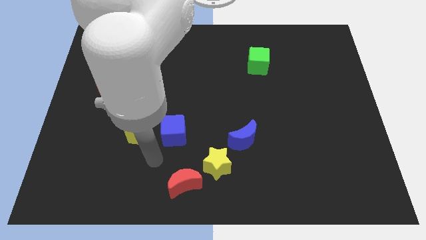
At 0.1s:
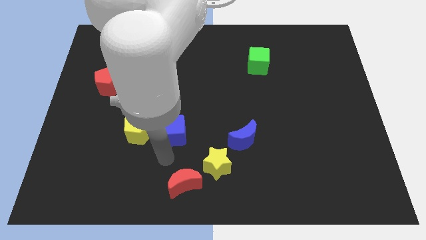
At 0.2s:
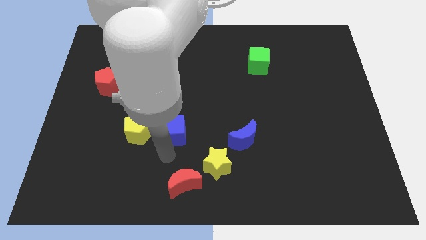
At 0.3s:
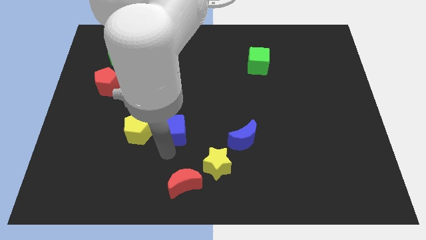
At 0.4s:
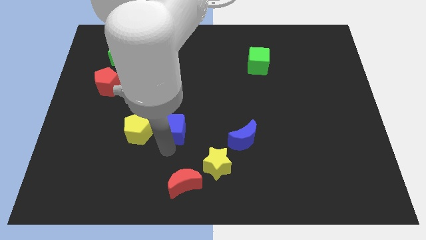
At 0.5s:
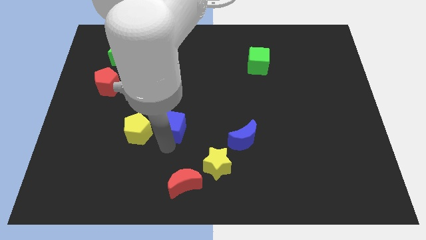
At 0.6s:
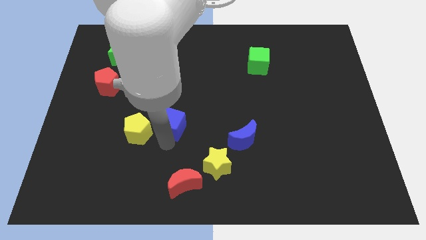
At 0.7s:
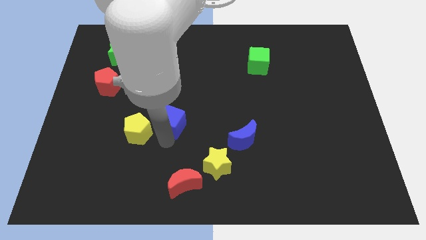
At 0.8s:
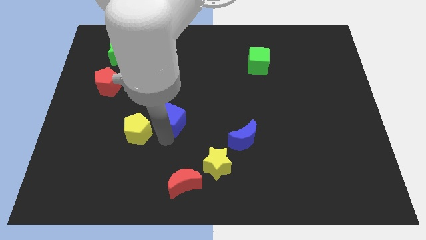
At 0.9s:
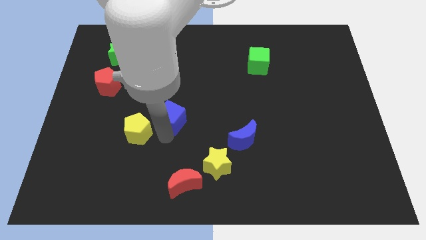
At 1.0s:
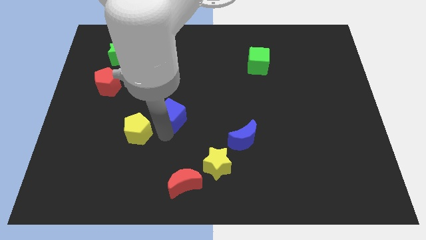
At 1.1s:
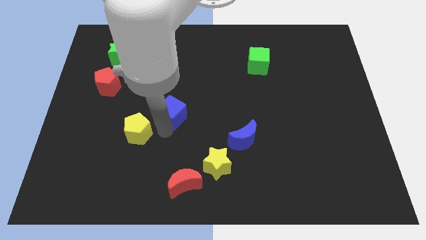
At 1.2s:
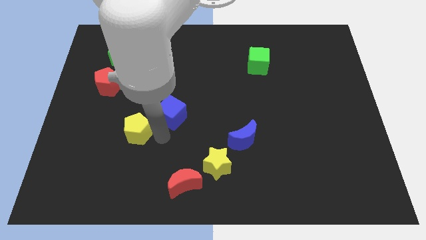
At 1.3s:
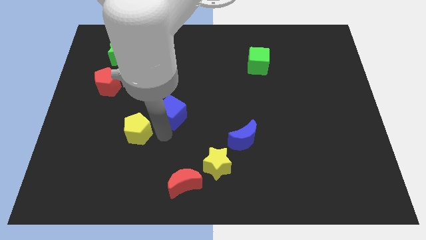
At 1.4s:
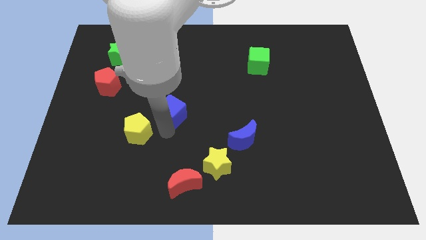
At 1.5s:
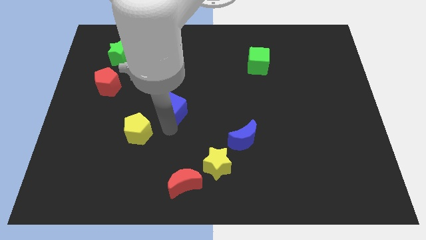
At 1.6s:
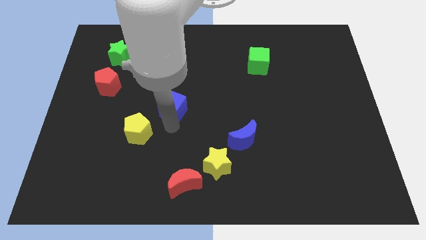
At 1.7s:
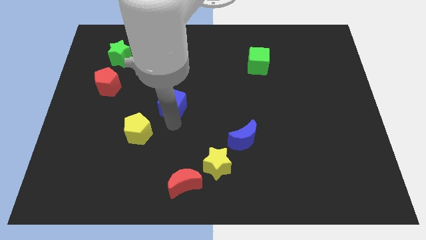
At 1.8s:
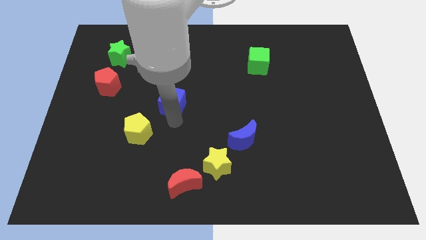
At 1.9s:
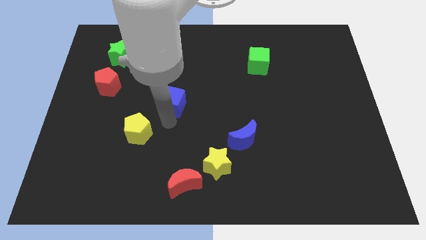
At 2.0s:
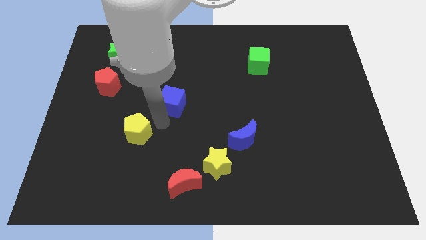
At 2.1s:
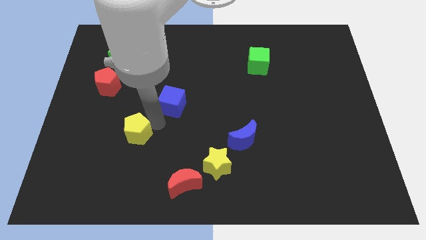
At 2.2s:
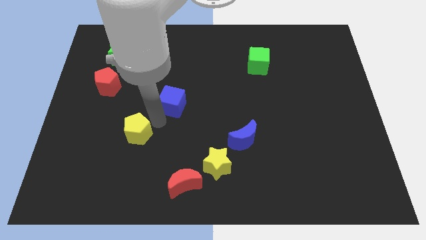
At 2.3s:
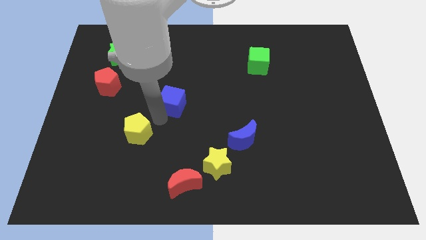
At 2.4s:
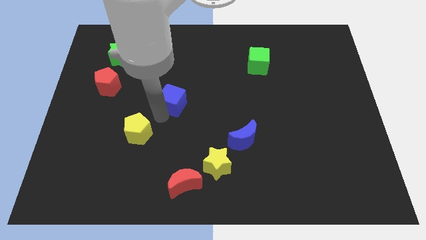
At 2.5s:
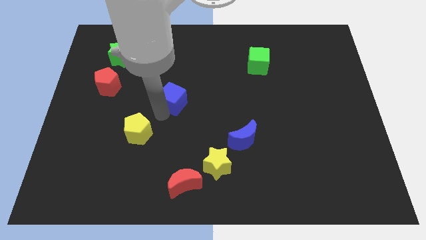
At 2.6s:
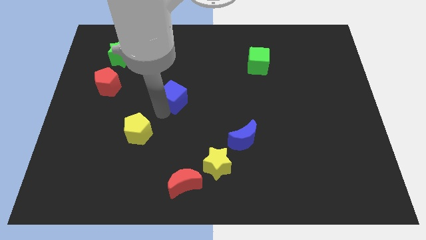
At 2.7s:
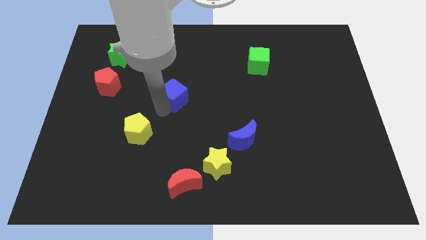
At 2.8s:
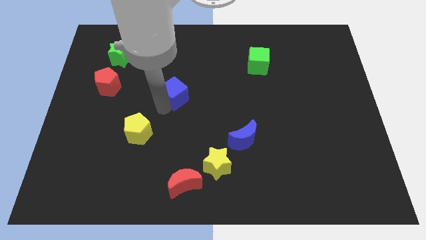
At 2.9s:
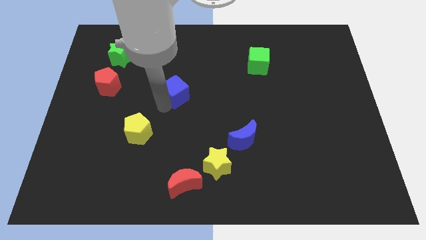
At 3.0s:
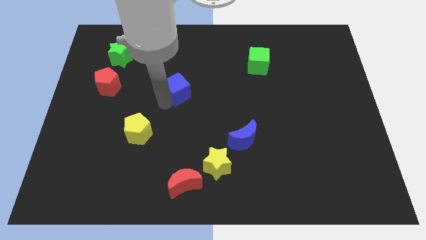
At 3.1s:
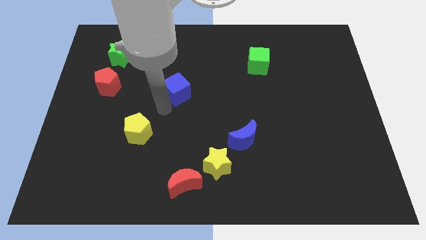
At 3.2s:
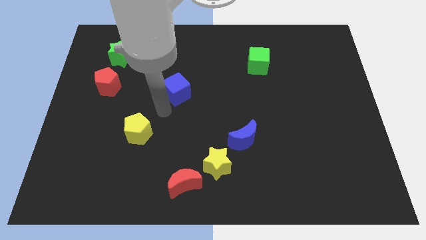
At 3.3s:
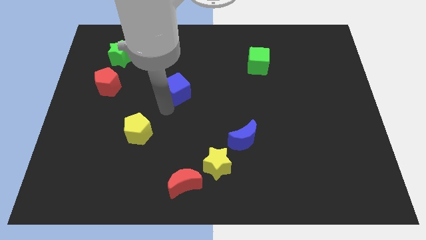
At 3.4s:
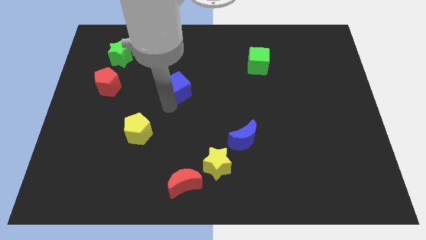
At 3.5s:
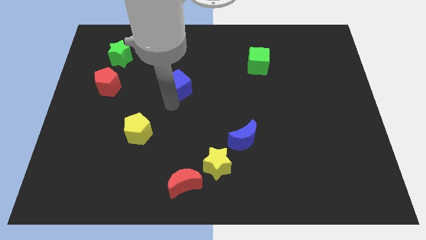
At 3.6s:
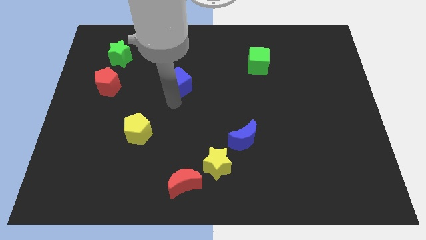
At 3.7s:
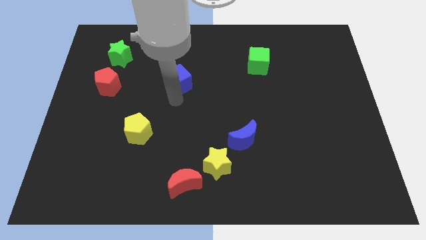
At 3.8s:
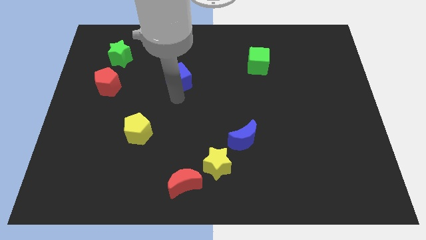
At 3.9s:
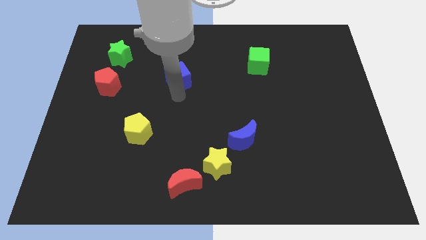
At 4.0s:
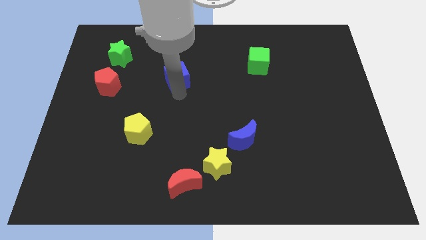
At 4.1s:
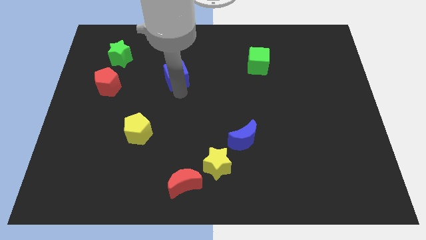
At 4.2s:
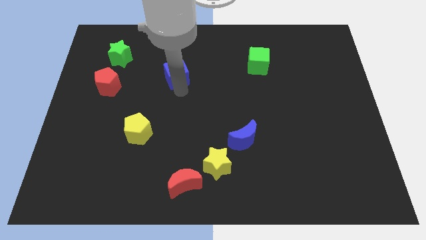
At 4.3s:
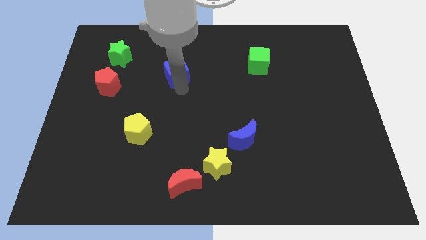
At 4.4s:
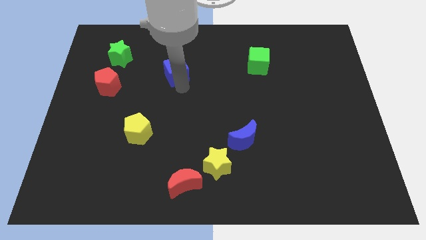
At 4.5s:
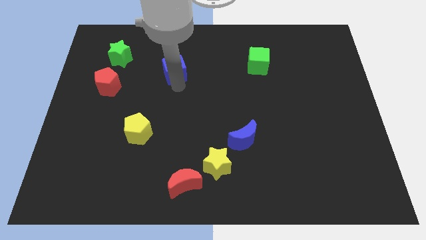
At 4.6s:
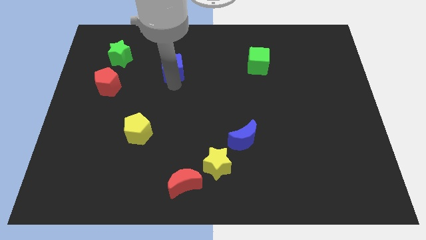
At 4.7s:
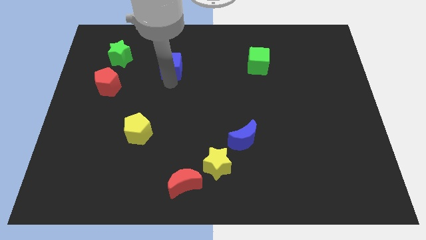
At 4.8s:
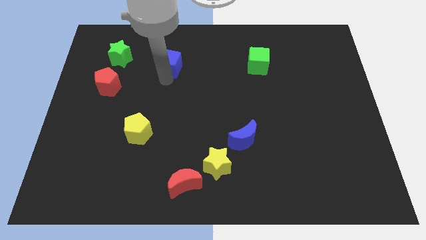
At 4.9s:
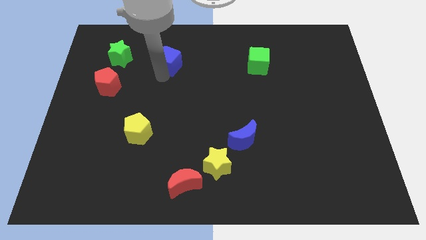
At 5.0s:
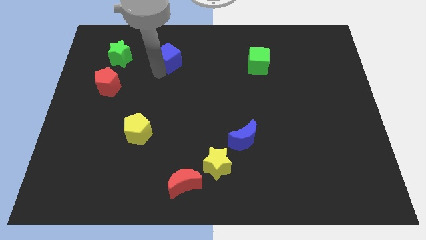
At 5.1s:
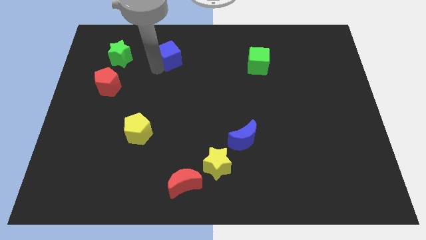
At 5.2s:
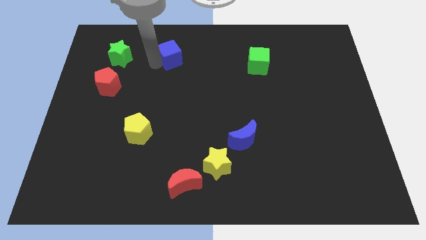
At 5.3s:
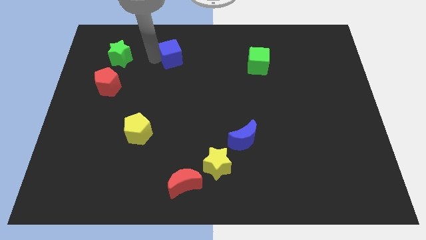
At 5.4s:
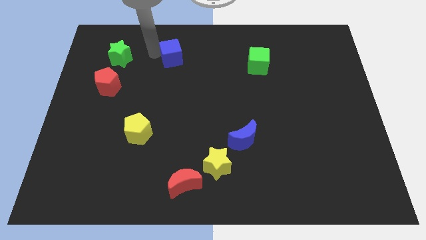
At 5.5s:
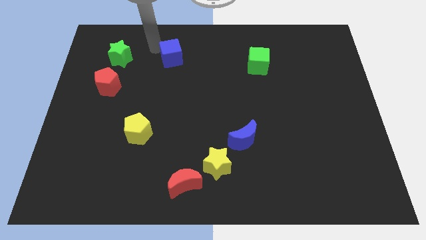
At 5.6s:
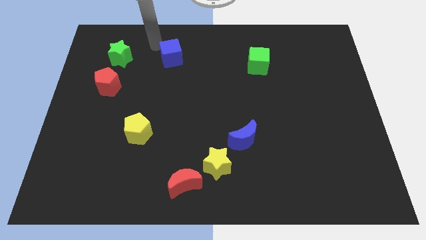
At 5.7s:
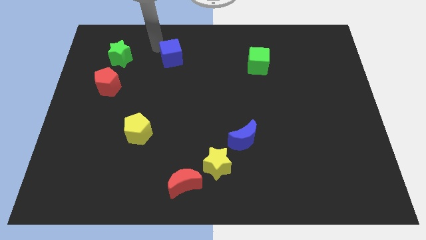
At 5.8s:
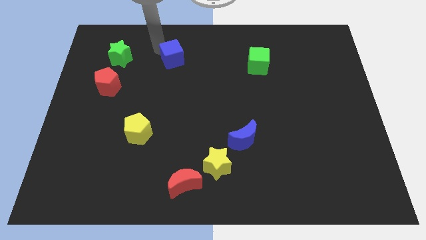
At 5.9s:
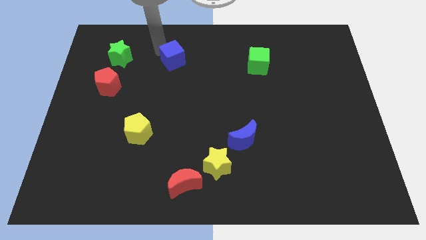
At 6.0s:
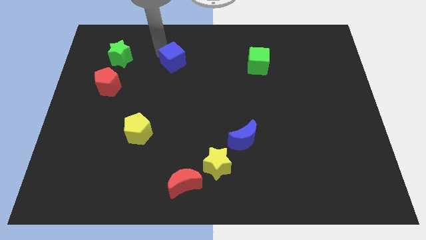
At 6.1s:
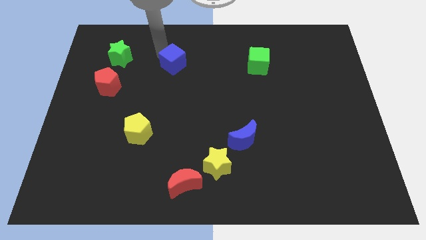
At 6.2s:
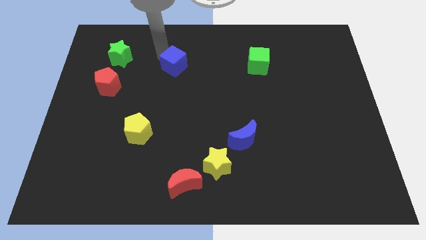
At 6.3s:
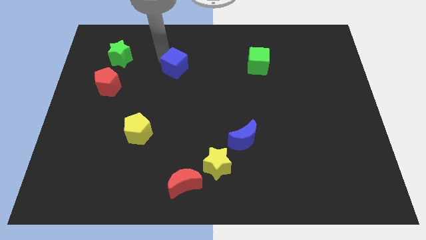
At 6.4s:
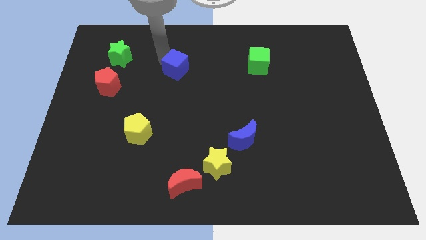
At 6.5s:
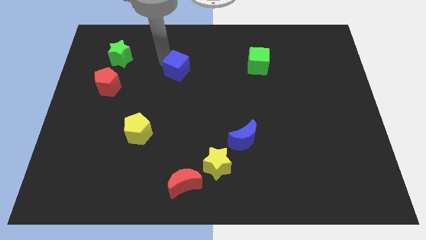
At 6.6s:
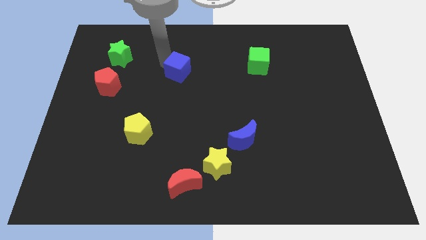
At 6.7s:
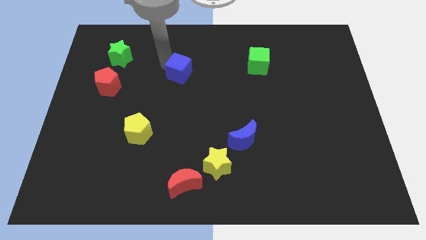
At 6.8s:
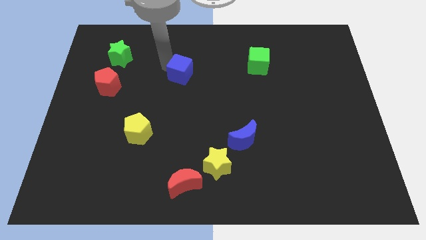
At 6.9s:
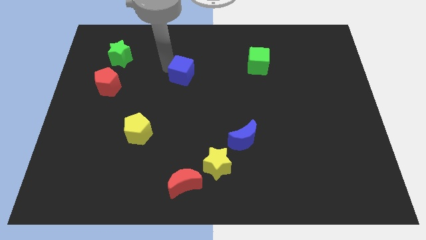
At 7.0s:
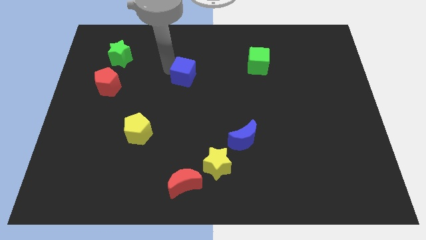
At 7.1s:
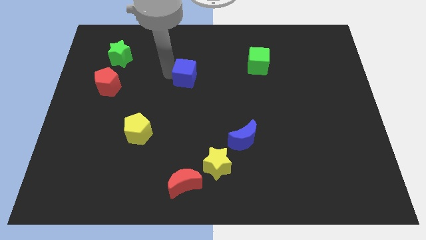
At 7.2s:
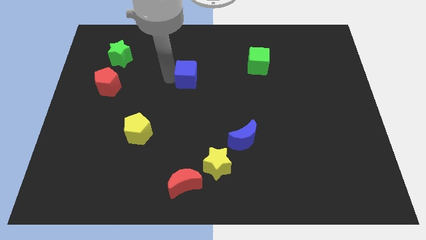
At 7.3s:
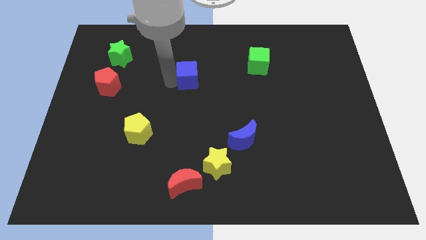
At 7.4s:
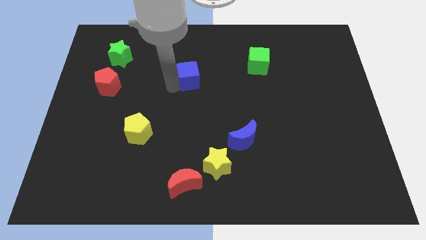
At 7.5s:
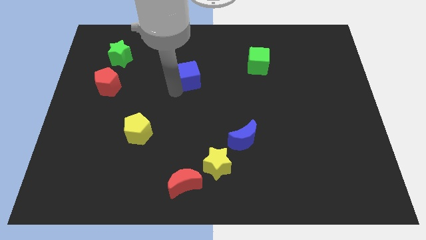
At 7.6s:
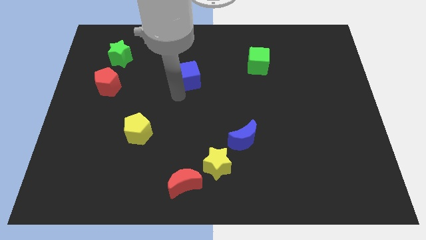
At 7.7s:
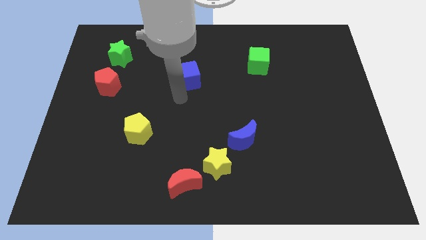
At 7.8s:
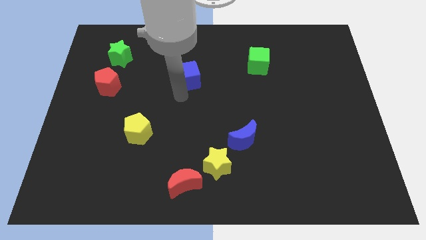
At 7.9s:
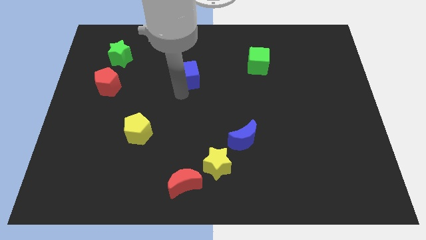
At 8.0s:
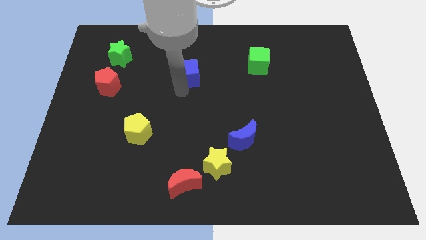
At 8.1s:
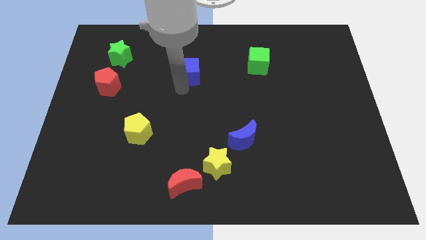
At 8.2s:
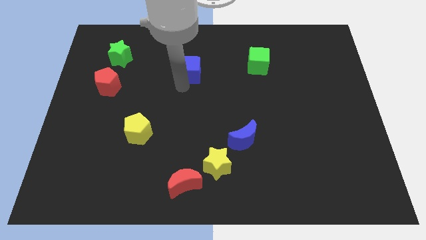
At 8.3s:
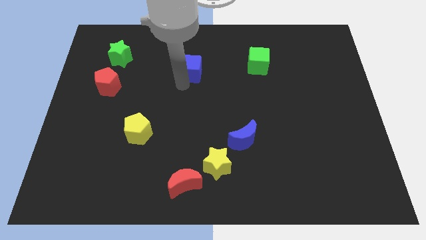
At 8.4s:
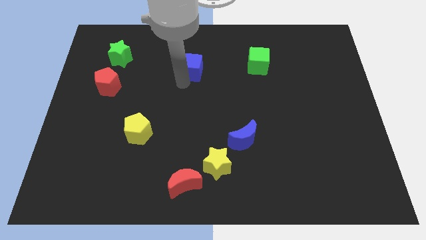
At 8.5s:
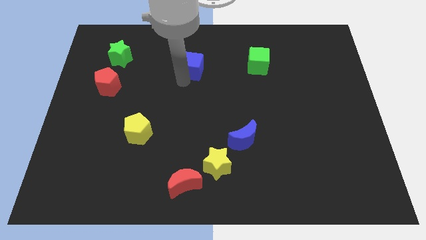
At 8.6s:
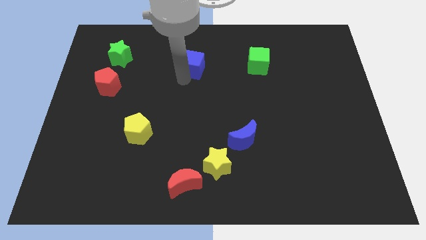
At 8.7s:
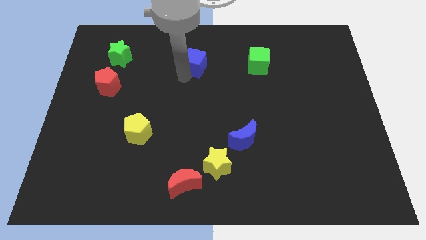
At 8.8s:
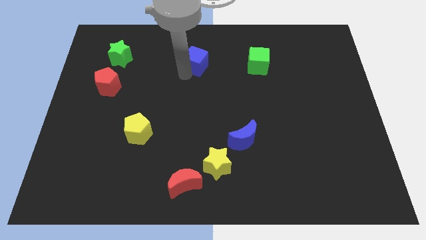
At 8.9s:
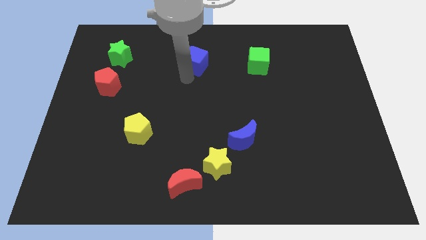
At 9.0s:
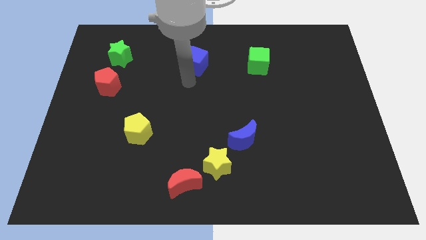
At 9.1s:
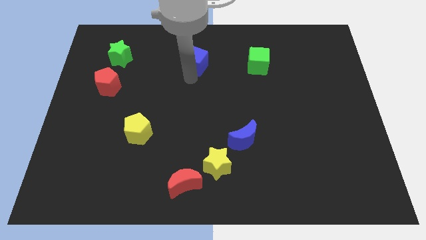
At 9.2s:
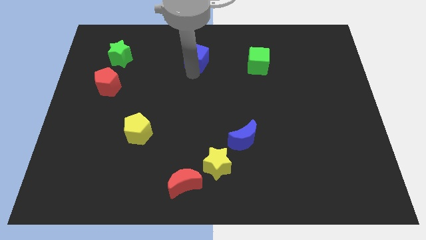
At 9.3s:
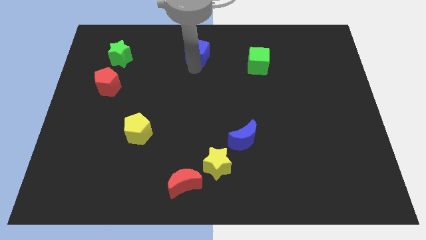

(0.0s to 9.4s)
slide the blue cube to the towards your base
